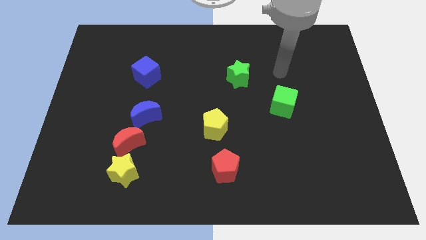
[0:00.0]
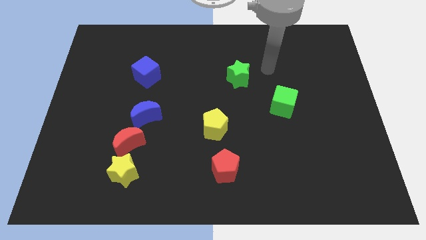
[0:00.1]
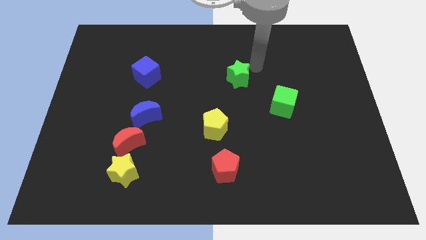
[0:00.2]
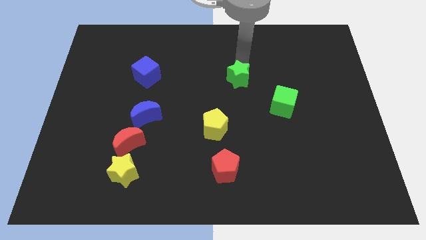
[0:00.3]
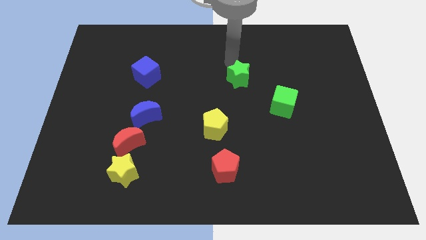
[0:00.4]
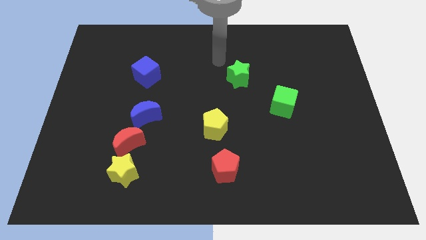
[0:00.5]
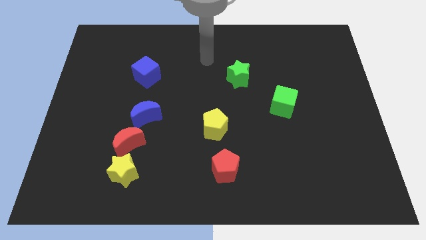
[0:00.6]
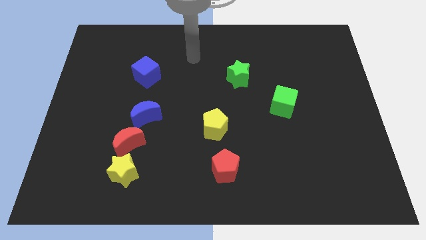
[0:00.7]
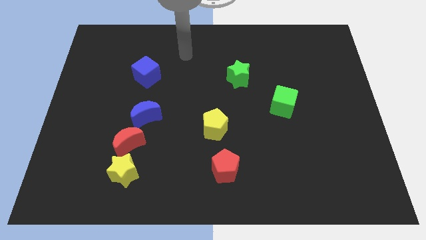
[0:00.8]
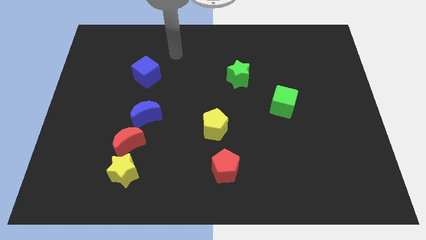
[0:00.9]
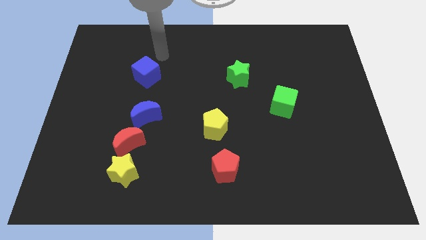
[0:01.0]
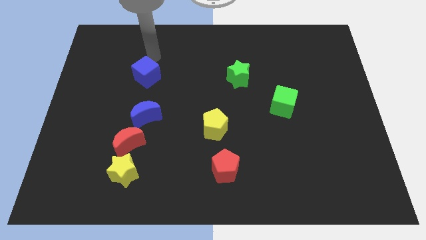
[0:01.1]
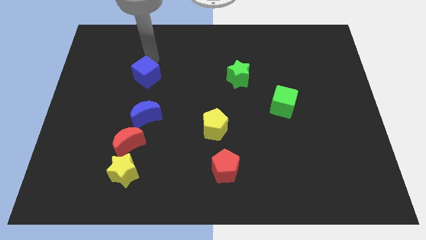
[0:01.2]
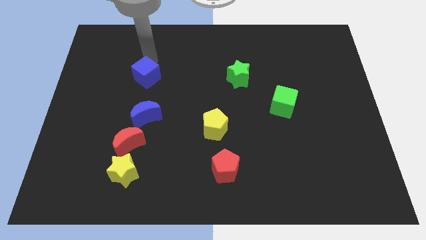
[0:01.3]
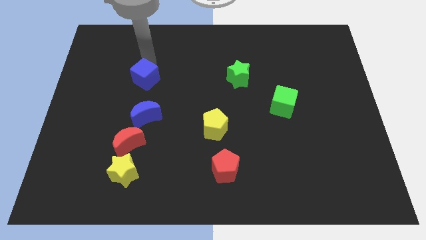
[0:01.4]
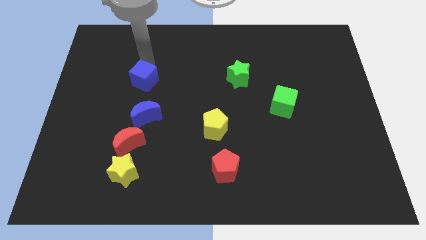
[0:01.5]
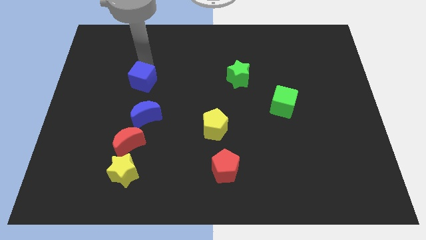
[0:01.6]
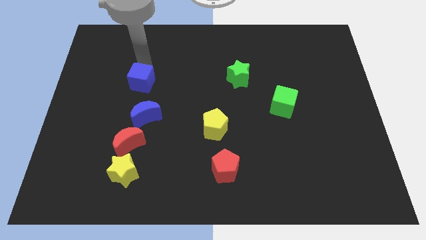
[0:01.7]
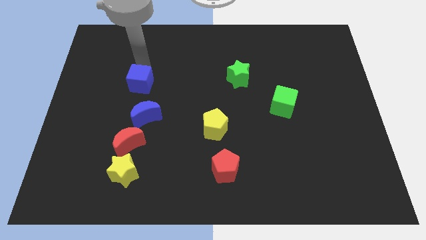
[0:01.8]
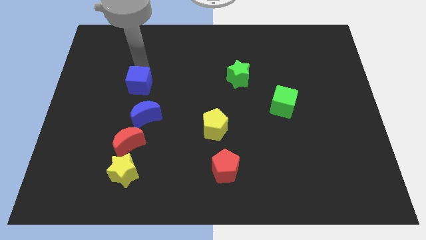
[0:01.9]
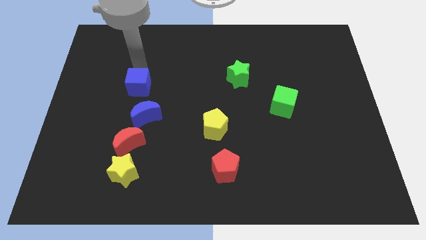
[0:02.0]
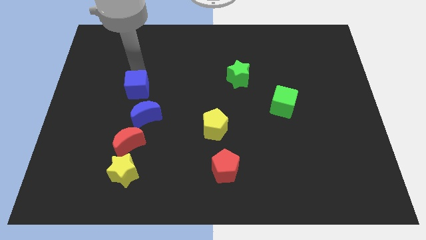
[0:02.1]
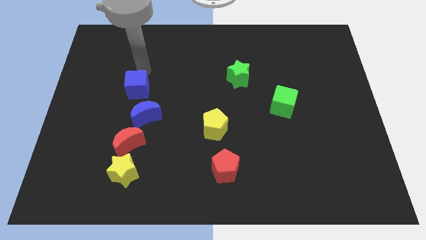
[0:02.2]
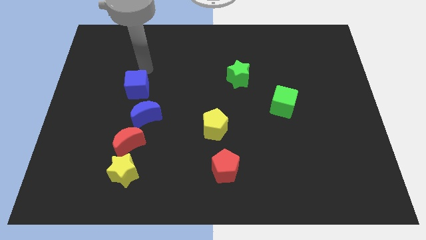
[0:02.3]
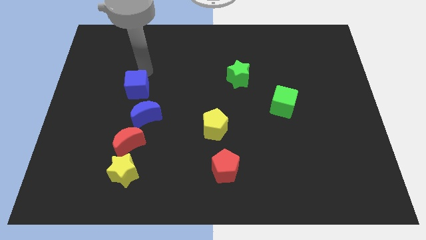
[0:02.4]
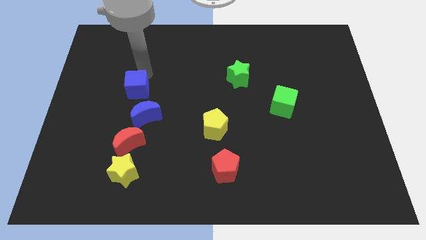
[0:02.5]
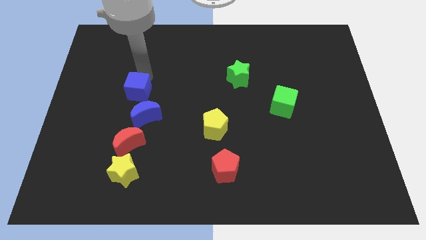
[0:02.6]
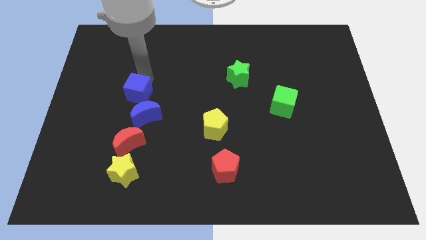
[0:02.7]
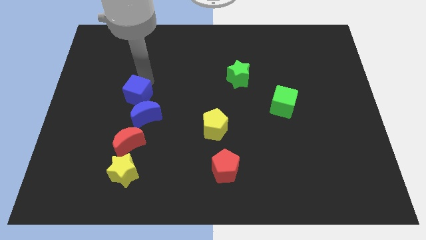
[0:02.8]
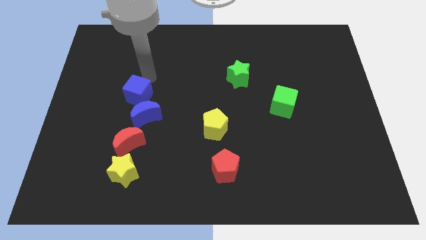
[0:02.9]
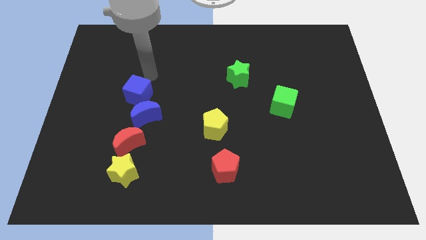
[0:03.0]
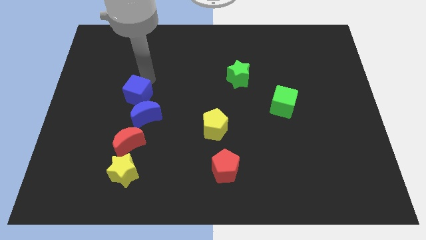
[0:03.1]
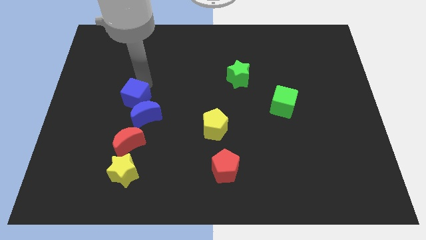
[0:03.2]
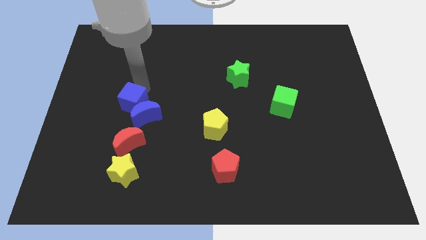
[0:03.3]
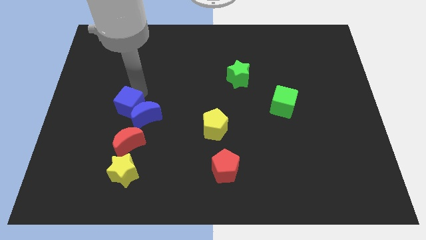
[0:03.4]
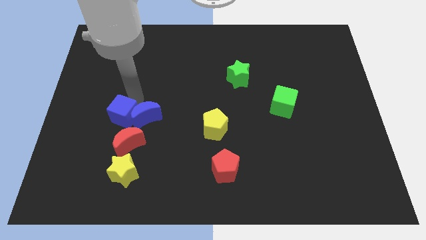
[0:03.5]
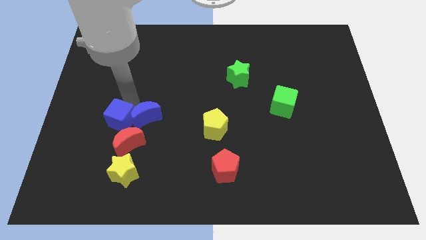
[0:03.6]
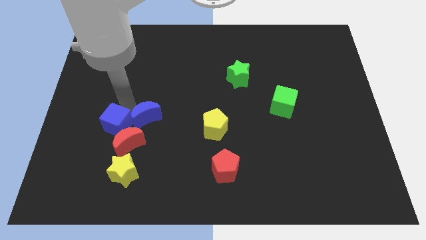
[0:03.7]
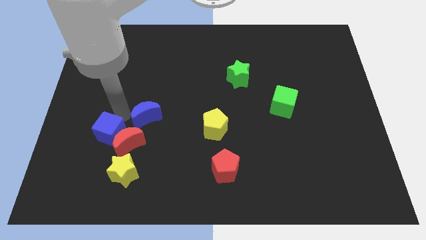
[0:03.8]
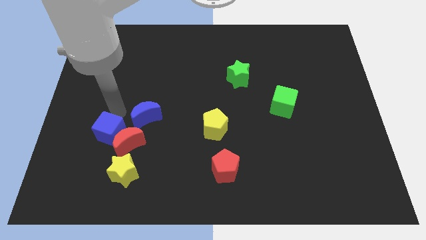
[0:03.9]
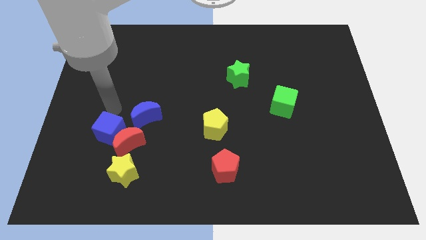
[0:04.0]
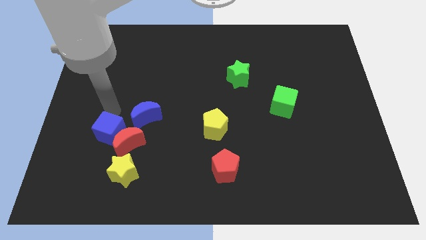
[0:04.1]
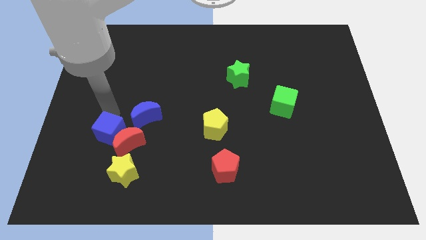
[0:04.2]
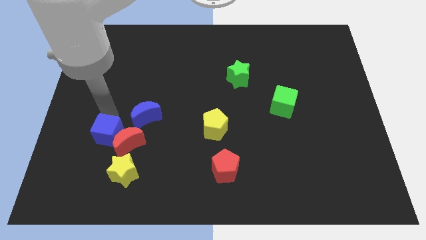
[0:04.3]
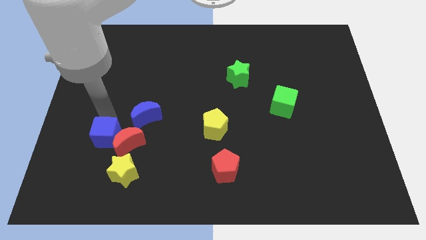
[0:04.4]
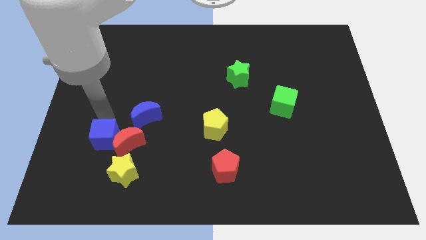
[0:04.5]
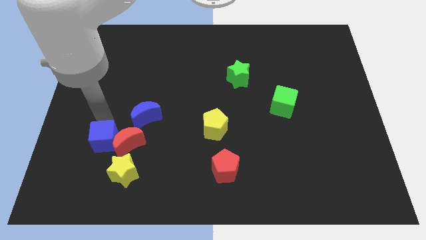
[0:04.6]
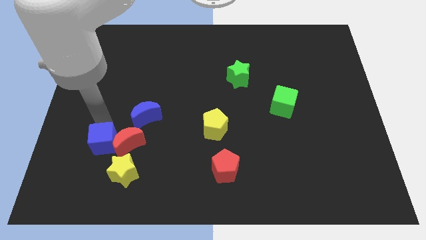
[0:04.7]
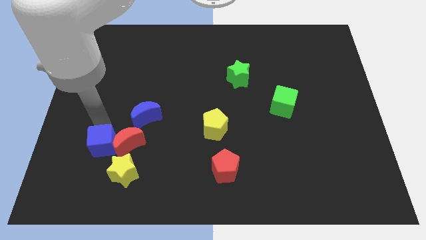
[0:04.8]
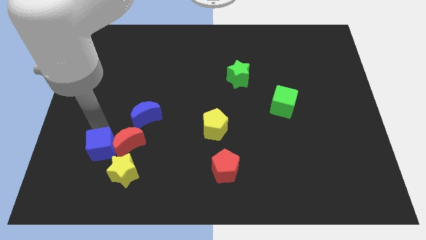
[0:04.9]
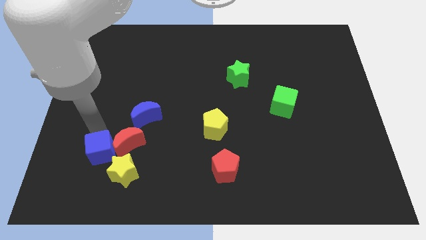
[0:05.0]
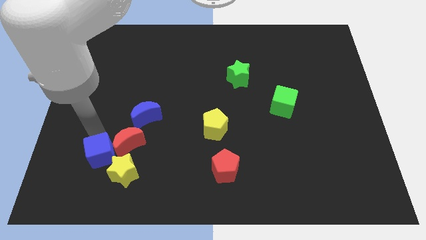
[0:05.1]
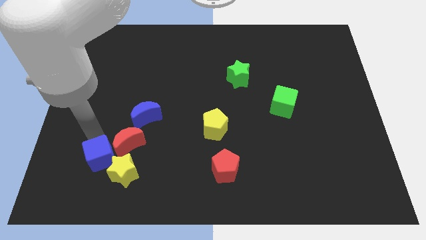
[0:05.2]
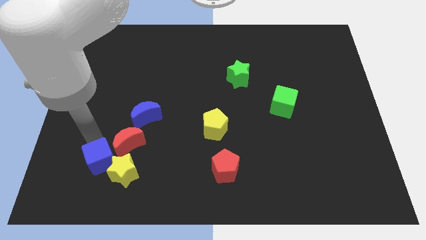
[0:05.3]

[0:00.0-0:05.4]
move the blue cube next to the yellow star

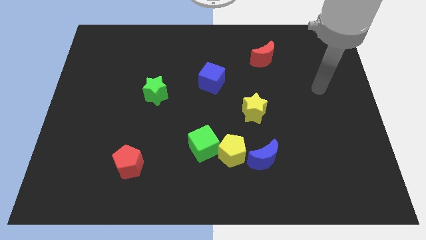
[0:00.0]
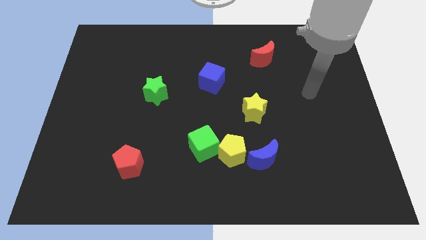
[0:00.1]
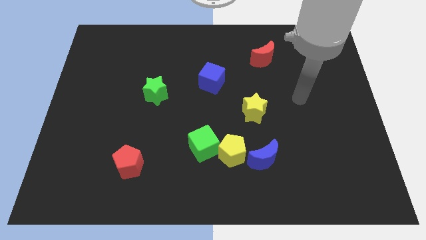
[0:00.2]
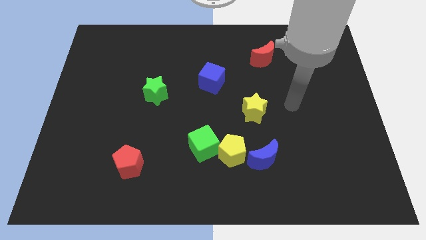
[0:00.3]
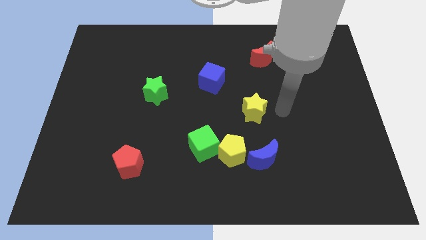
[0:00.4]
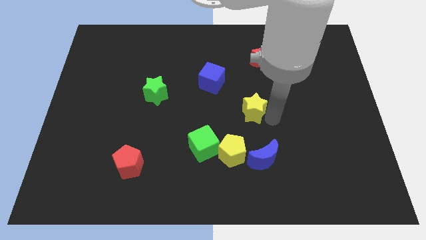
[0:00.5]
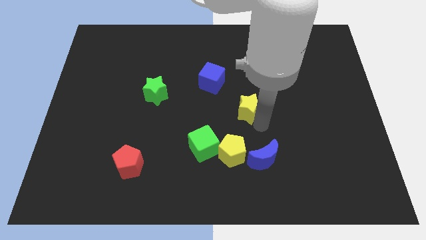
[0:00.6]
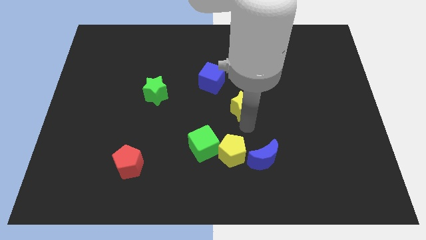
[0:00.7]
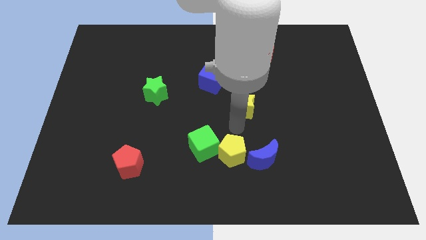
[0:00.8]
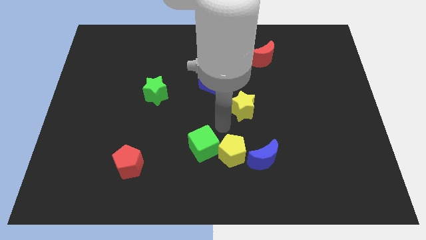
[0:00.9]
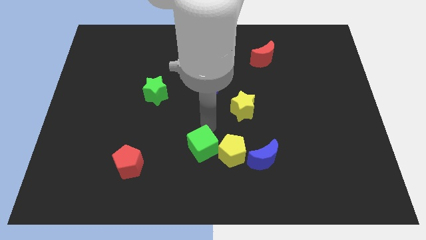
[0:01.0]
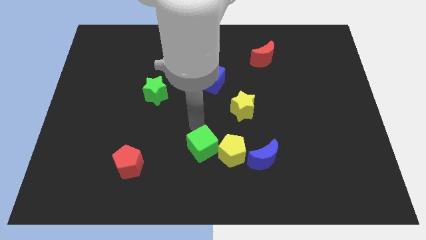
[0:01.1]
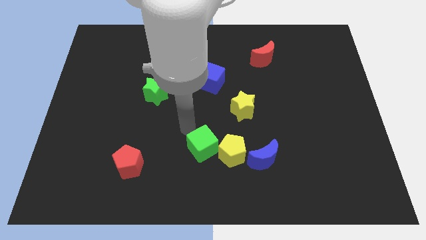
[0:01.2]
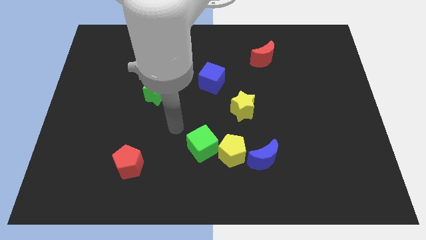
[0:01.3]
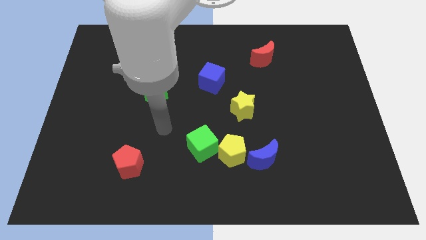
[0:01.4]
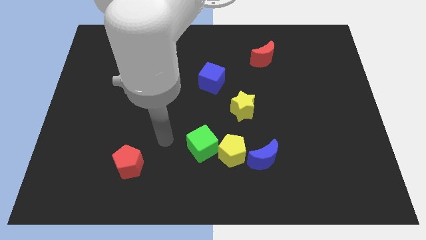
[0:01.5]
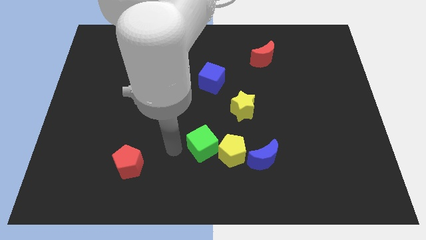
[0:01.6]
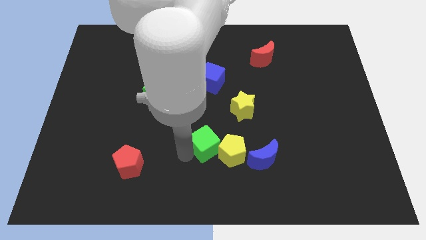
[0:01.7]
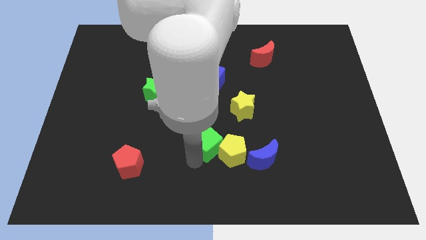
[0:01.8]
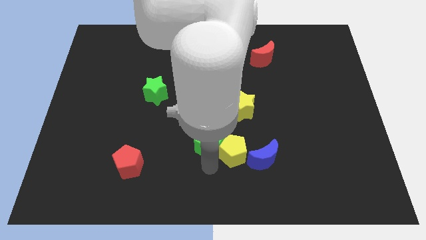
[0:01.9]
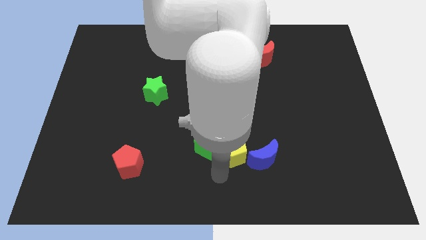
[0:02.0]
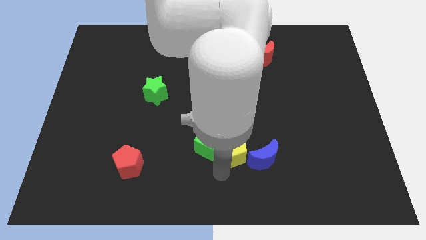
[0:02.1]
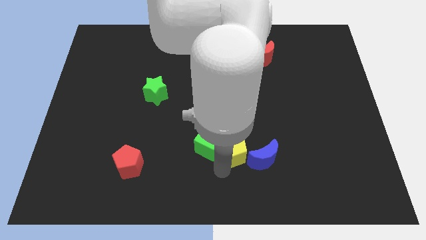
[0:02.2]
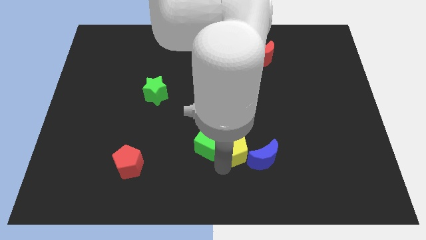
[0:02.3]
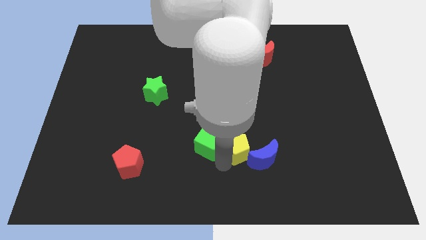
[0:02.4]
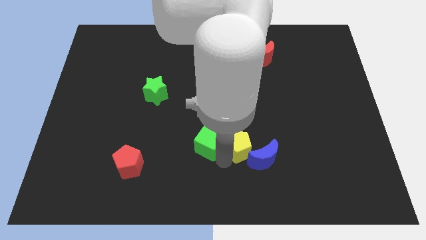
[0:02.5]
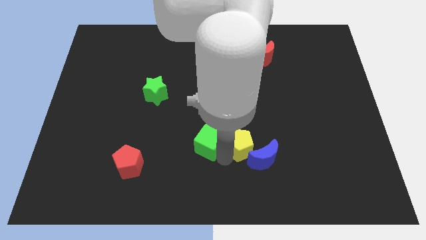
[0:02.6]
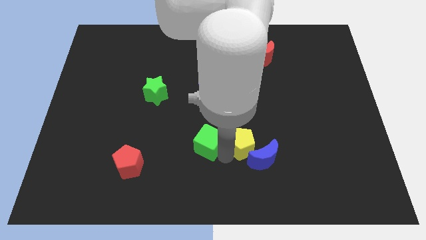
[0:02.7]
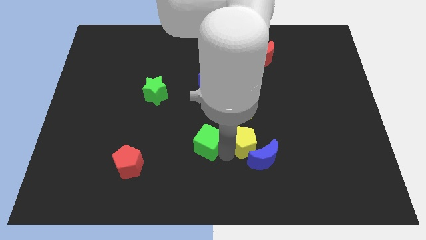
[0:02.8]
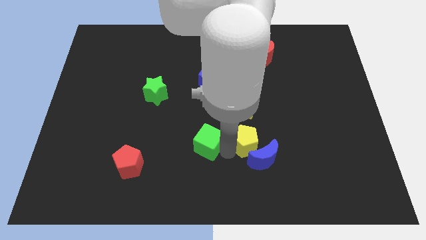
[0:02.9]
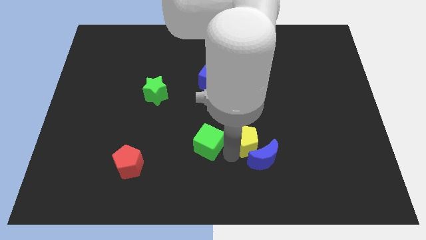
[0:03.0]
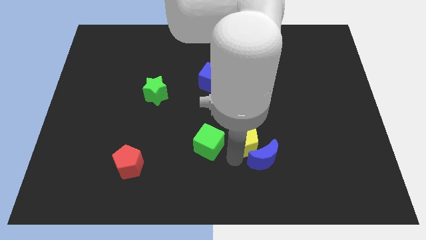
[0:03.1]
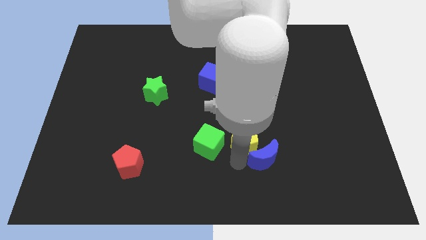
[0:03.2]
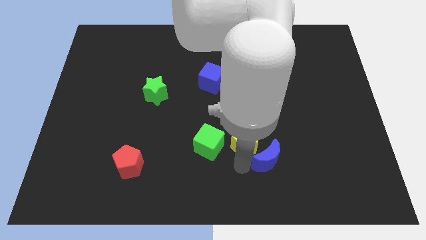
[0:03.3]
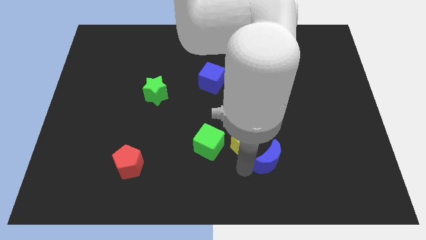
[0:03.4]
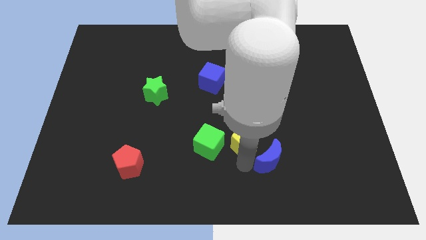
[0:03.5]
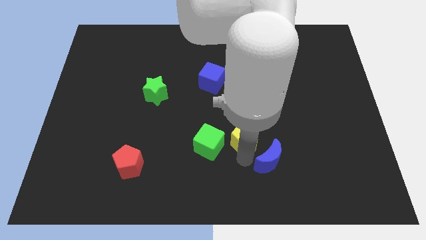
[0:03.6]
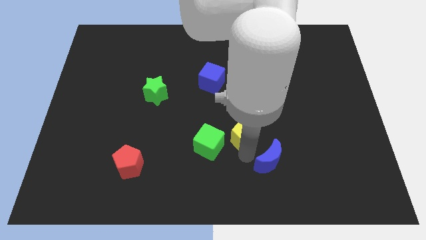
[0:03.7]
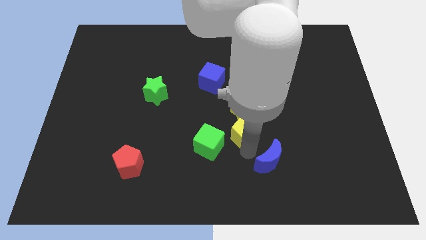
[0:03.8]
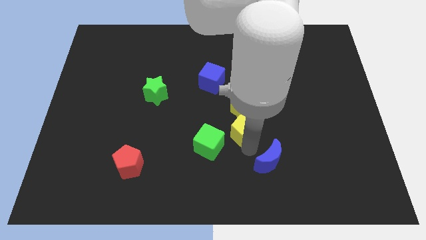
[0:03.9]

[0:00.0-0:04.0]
slide the yellow pentagon to the yellow star
